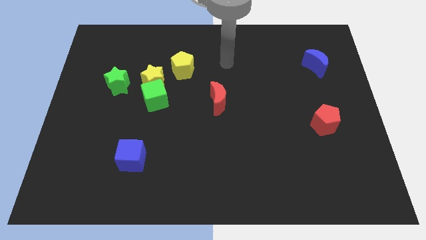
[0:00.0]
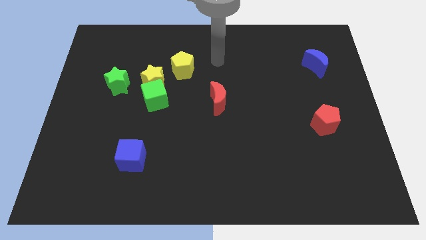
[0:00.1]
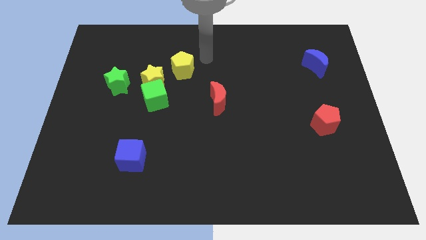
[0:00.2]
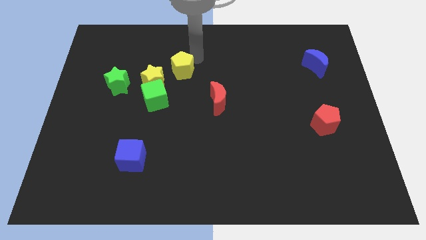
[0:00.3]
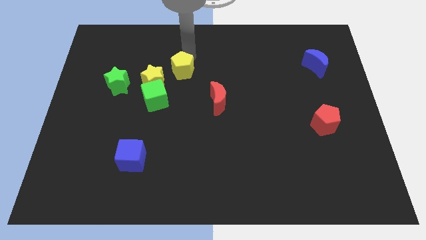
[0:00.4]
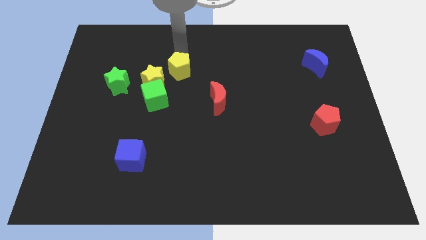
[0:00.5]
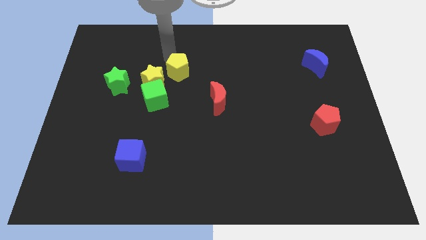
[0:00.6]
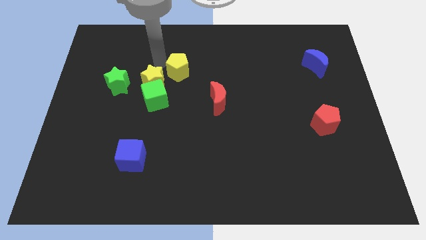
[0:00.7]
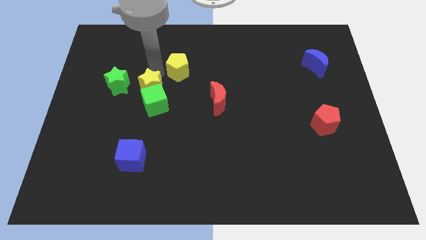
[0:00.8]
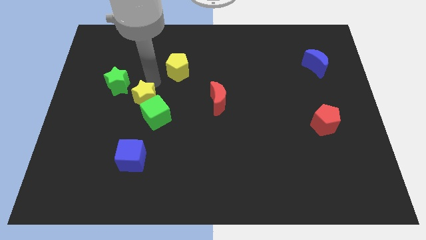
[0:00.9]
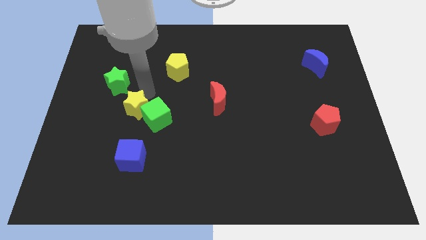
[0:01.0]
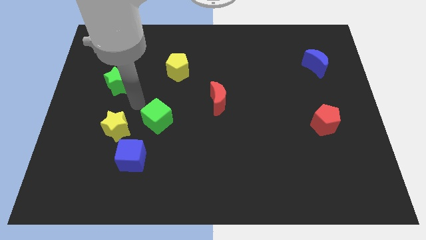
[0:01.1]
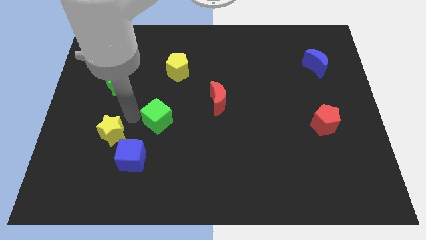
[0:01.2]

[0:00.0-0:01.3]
pull the green cube apart from the yellow star

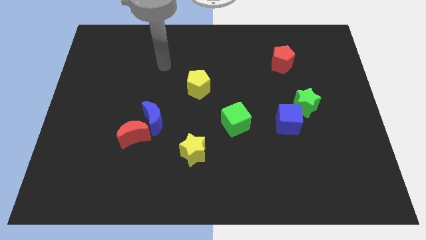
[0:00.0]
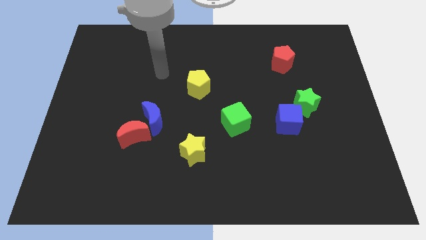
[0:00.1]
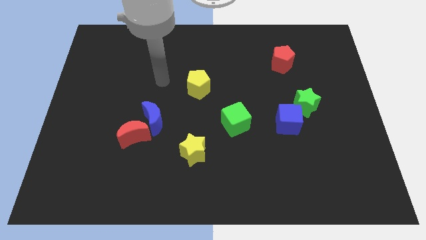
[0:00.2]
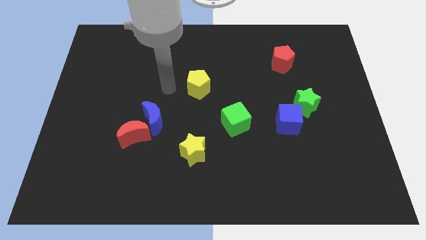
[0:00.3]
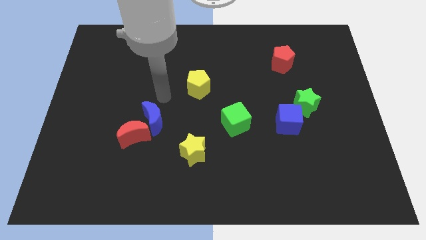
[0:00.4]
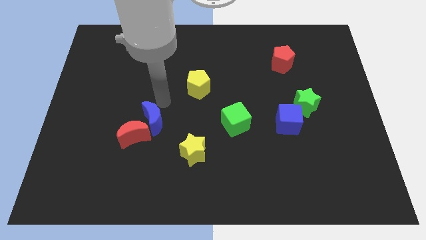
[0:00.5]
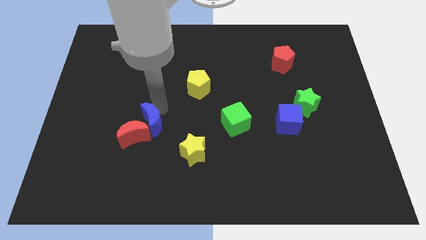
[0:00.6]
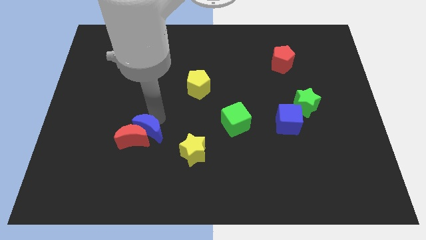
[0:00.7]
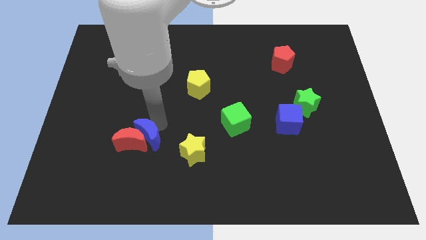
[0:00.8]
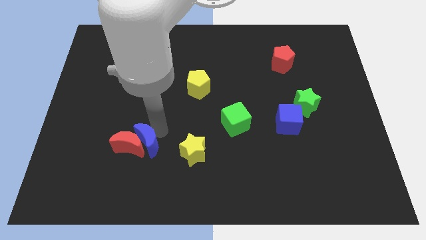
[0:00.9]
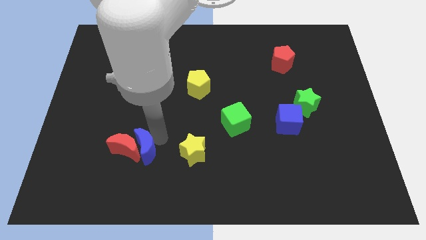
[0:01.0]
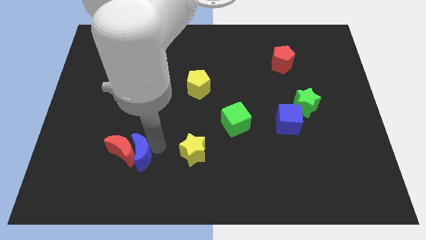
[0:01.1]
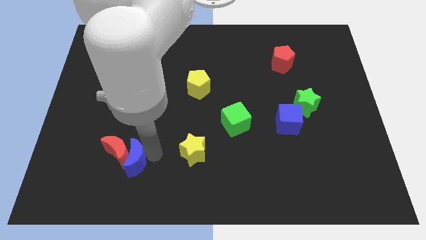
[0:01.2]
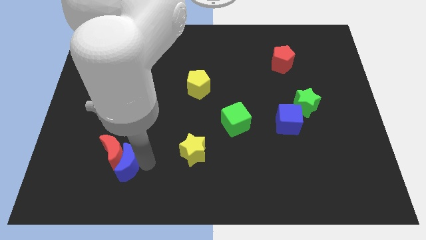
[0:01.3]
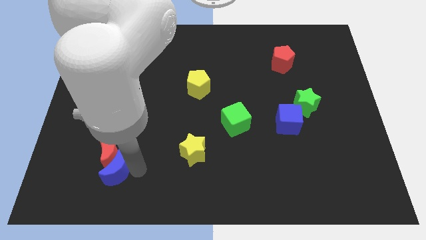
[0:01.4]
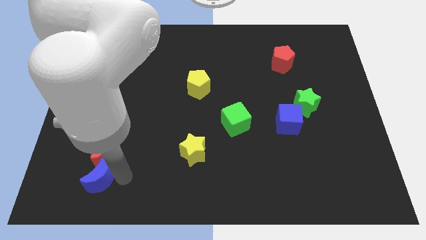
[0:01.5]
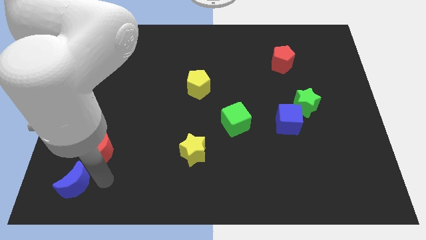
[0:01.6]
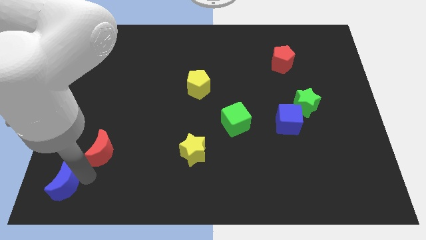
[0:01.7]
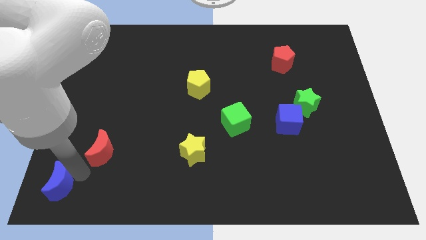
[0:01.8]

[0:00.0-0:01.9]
separate the red moon from the blue moon

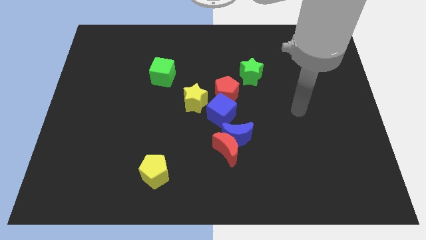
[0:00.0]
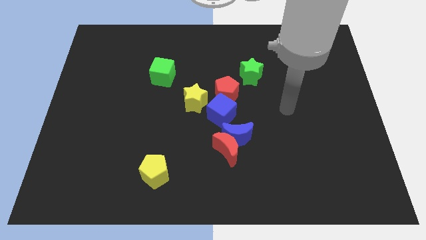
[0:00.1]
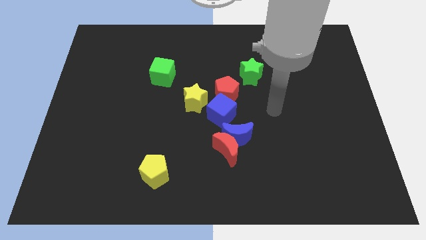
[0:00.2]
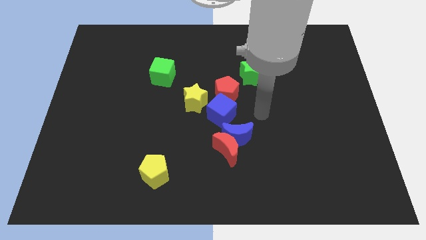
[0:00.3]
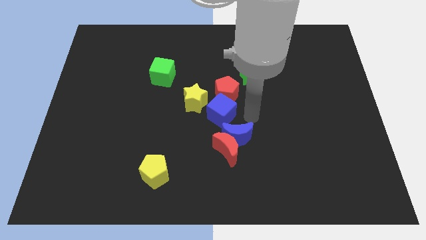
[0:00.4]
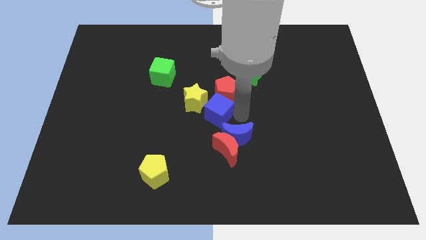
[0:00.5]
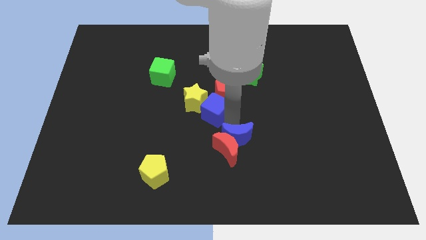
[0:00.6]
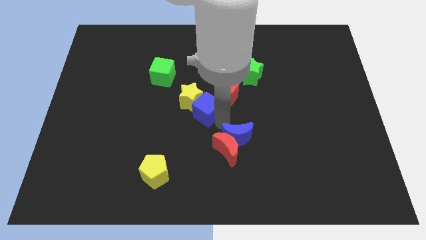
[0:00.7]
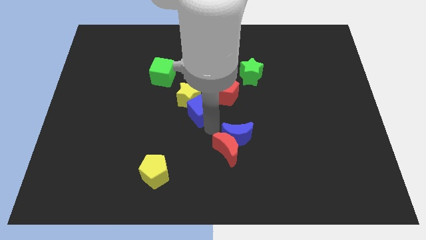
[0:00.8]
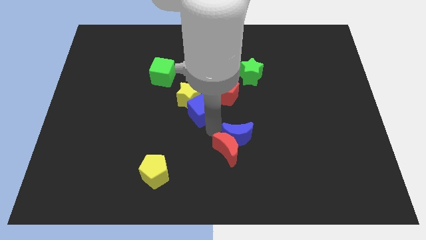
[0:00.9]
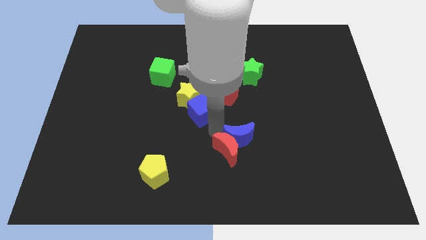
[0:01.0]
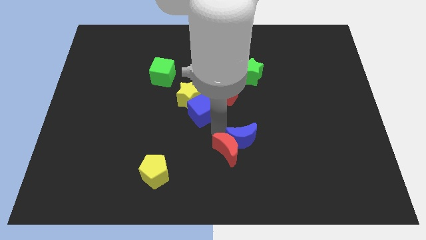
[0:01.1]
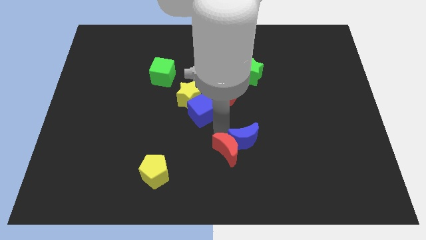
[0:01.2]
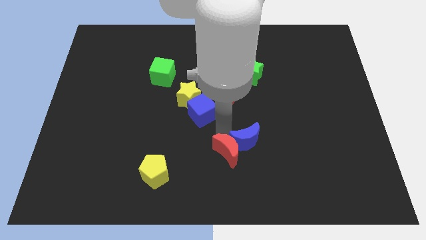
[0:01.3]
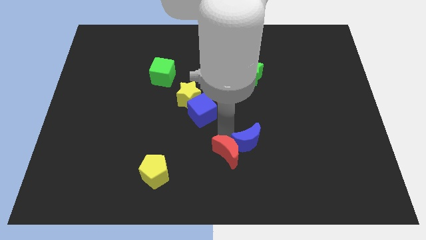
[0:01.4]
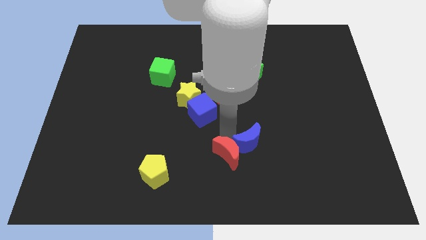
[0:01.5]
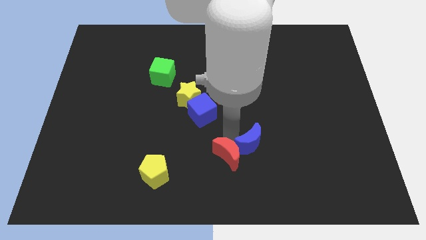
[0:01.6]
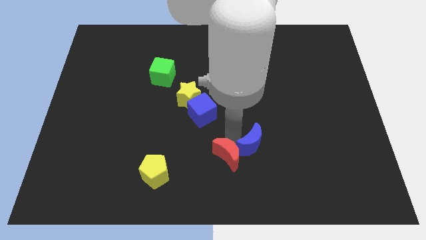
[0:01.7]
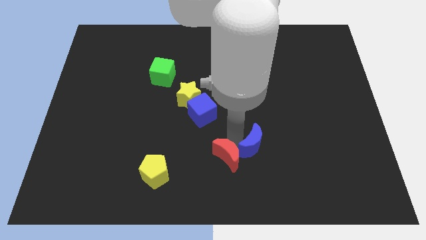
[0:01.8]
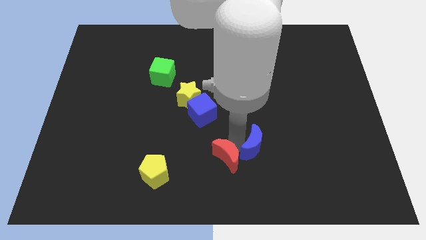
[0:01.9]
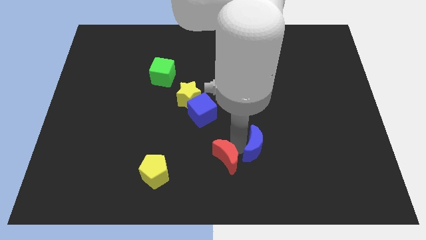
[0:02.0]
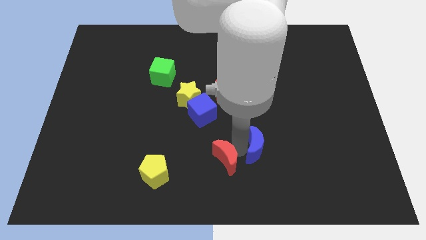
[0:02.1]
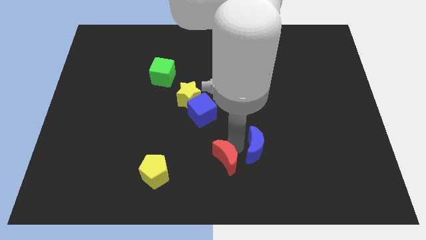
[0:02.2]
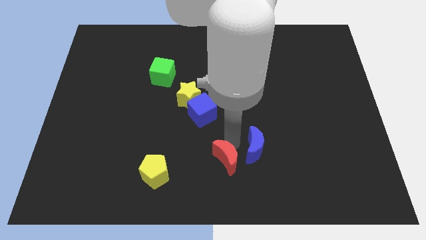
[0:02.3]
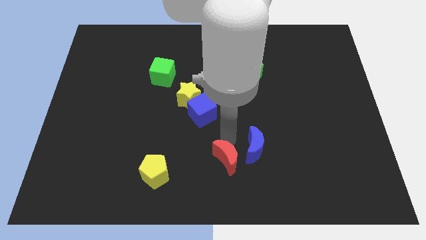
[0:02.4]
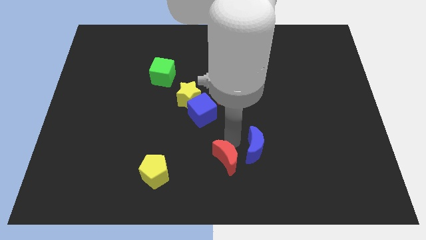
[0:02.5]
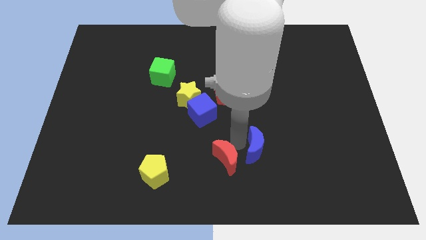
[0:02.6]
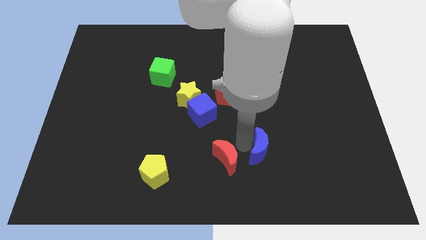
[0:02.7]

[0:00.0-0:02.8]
move the blue moon away from the red moon and blue cube

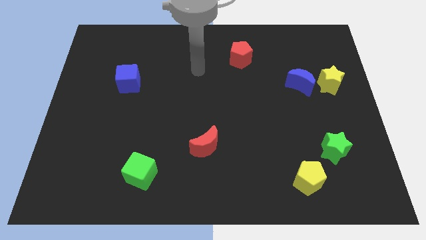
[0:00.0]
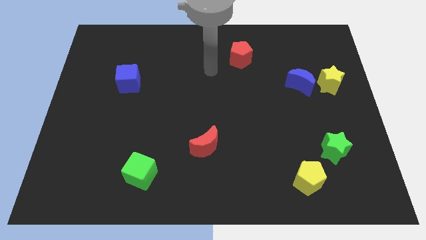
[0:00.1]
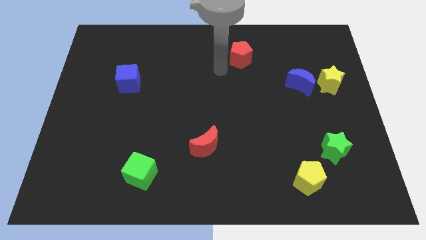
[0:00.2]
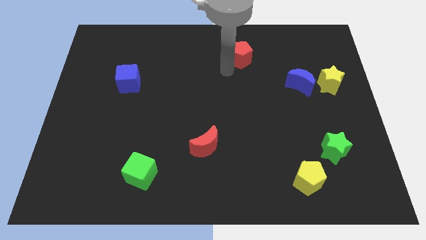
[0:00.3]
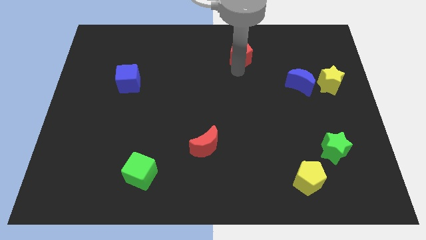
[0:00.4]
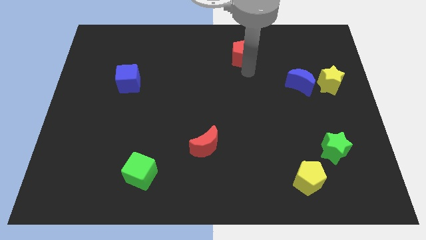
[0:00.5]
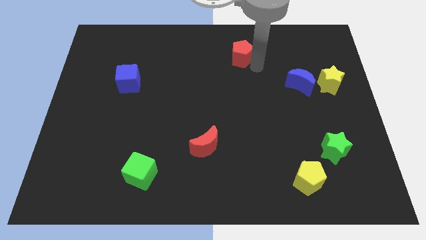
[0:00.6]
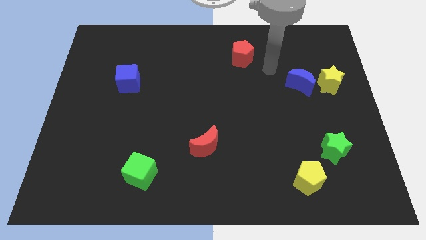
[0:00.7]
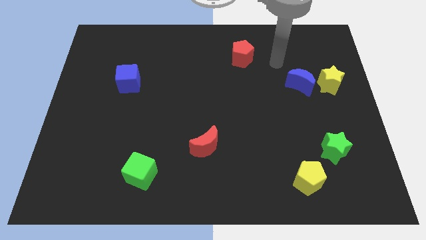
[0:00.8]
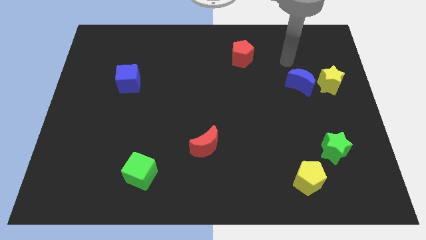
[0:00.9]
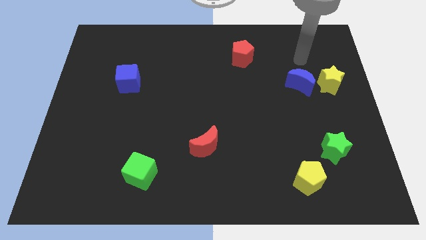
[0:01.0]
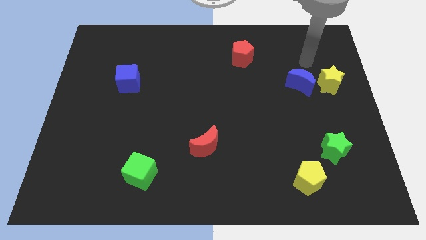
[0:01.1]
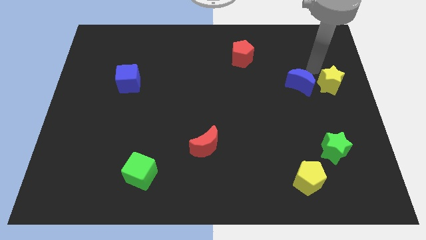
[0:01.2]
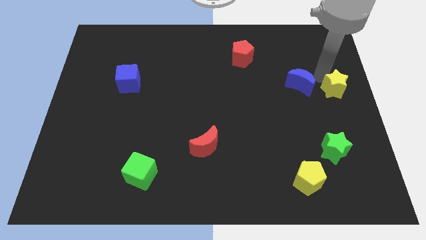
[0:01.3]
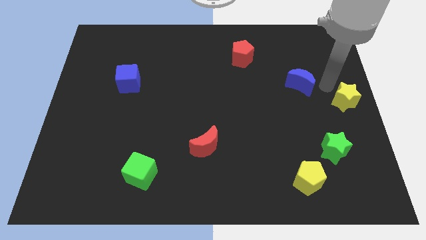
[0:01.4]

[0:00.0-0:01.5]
separate the blue moon from the yellow star

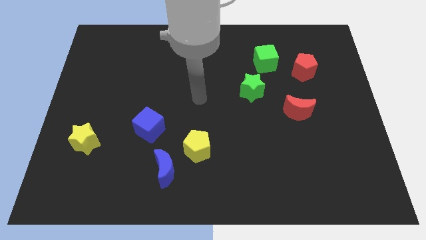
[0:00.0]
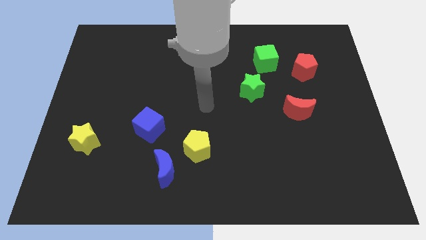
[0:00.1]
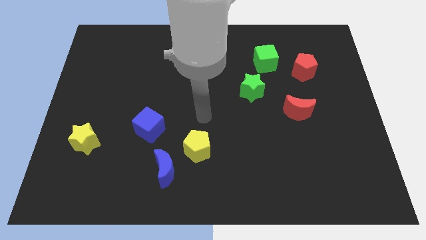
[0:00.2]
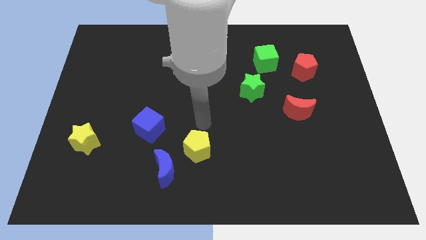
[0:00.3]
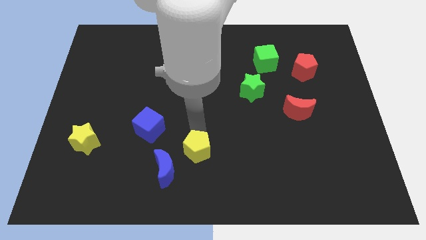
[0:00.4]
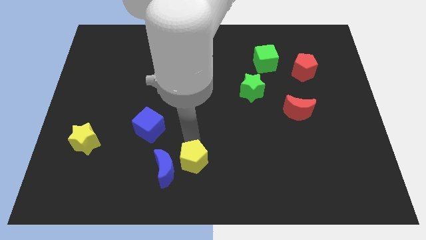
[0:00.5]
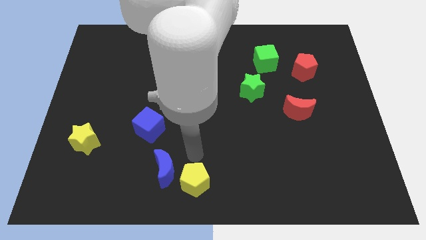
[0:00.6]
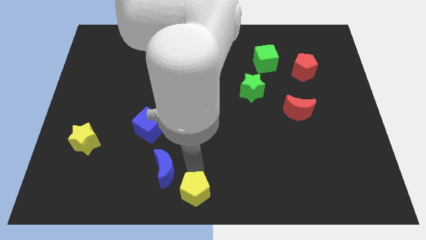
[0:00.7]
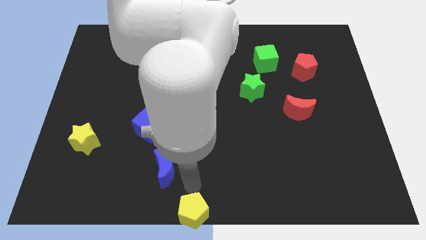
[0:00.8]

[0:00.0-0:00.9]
move the blue moon away from the yellow pentagon

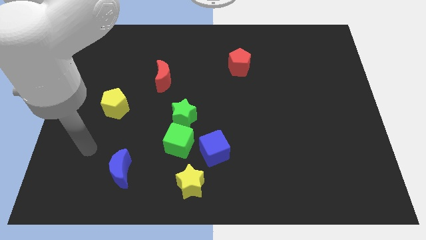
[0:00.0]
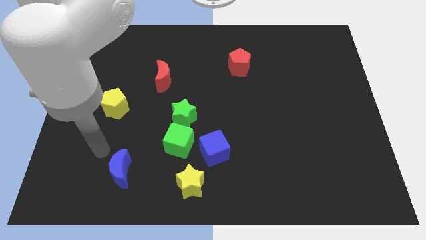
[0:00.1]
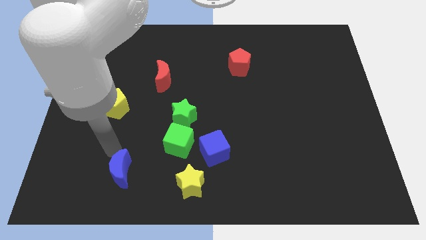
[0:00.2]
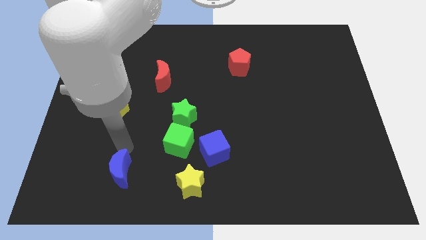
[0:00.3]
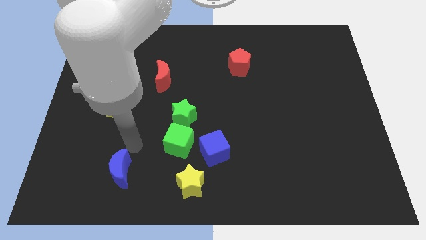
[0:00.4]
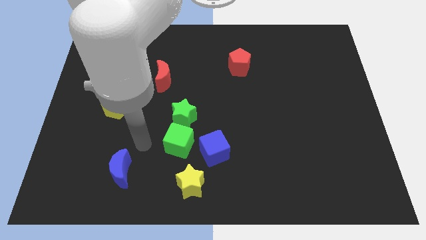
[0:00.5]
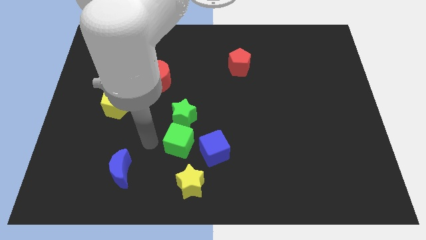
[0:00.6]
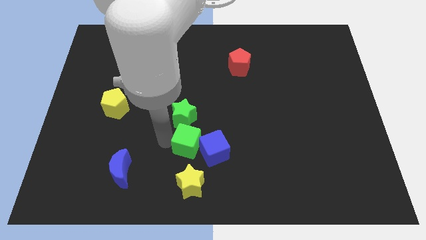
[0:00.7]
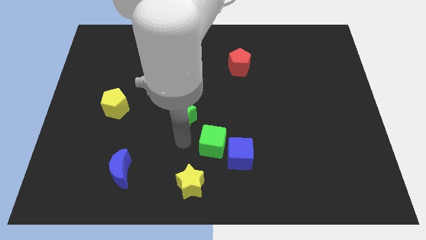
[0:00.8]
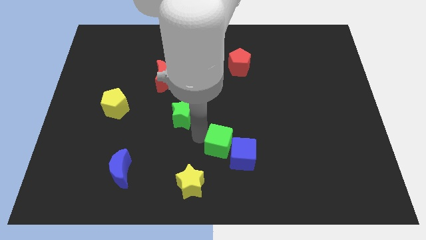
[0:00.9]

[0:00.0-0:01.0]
separate the green star from the green cube

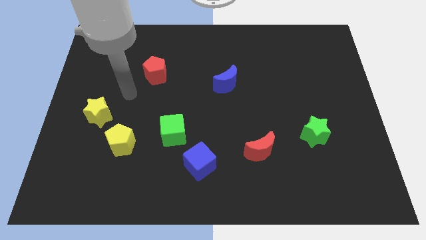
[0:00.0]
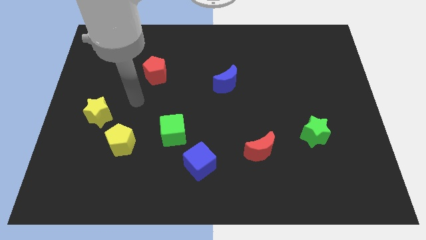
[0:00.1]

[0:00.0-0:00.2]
pull the blue cube apart from the green cube
